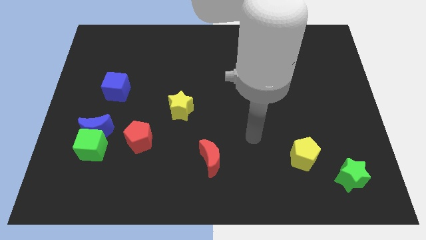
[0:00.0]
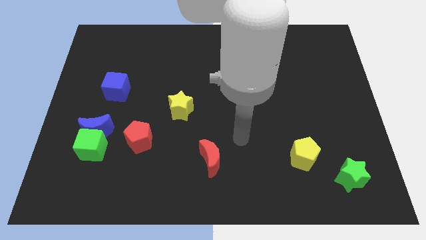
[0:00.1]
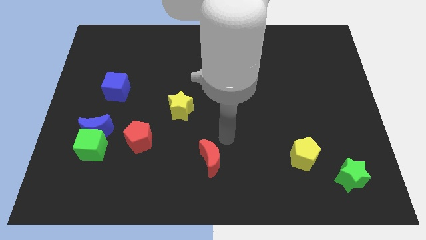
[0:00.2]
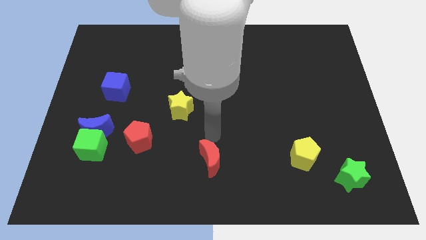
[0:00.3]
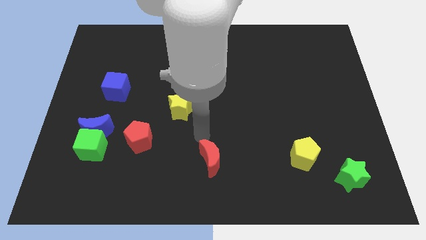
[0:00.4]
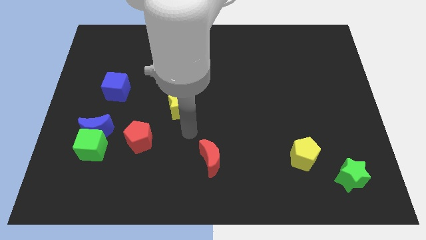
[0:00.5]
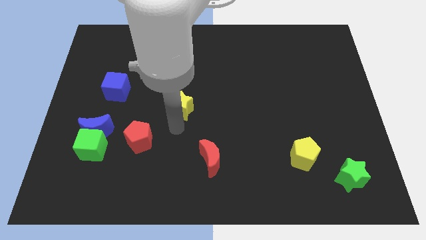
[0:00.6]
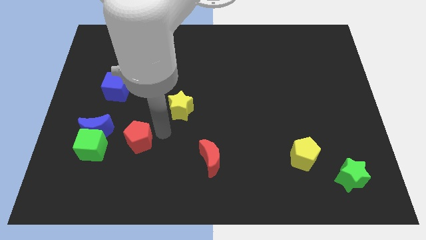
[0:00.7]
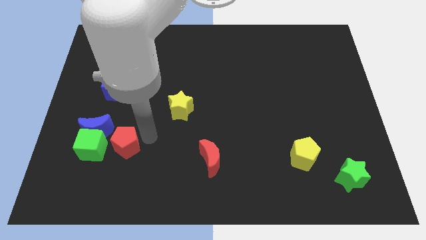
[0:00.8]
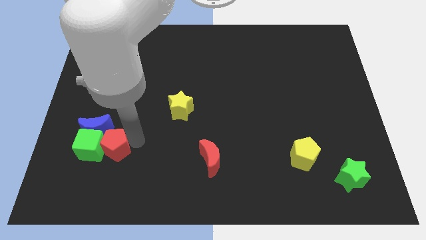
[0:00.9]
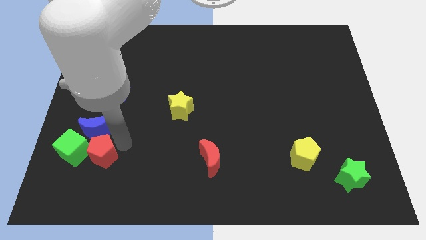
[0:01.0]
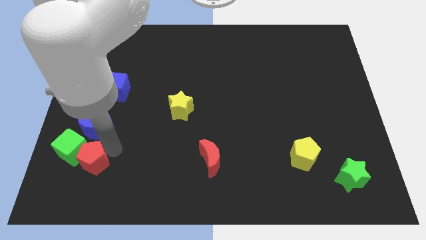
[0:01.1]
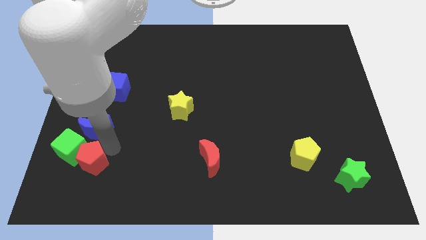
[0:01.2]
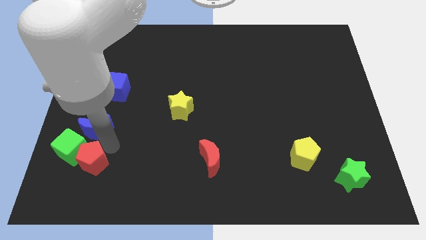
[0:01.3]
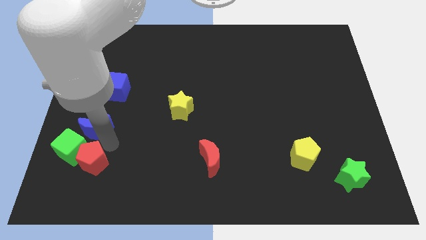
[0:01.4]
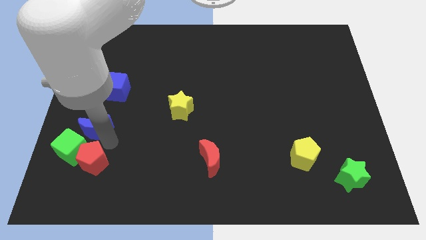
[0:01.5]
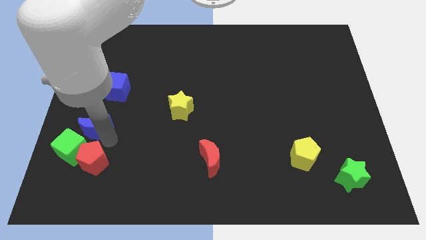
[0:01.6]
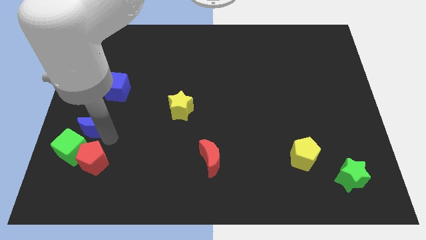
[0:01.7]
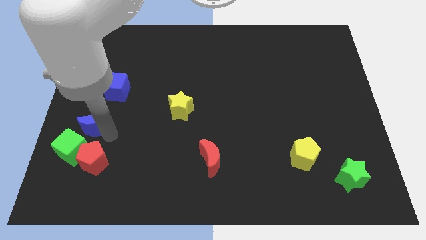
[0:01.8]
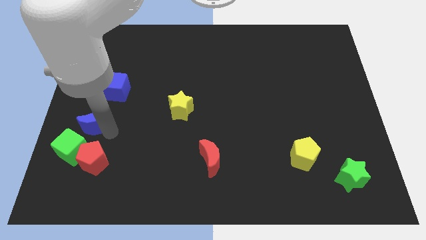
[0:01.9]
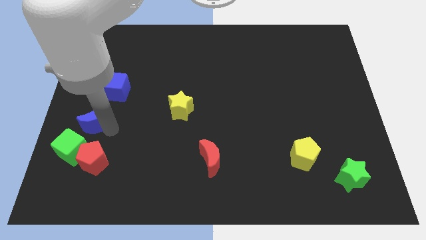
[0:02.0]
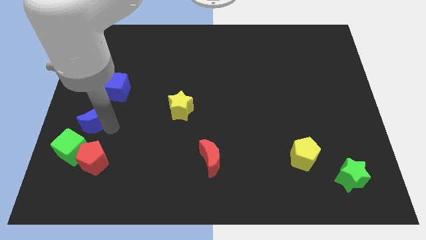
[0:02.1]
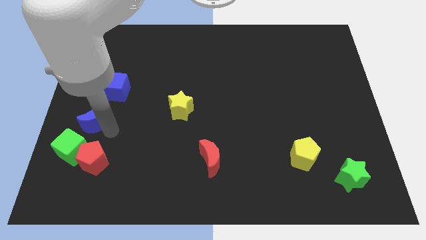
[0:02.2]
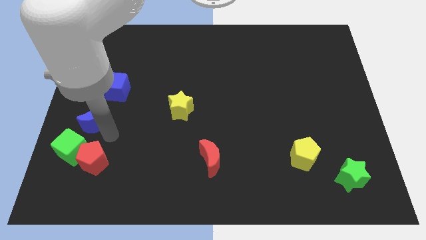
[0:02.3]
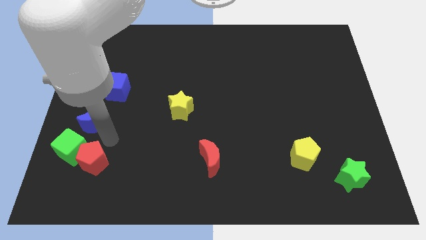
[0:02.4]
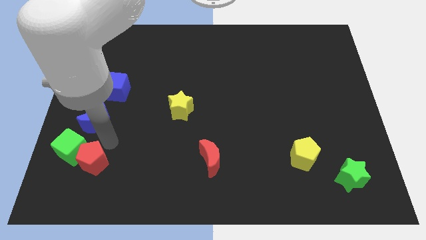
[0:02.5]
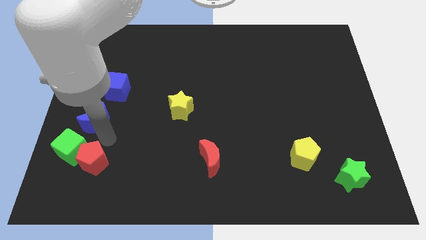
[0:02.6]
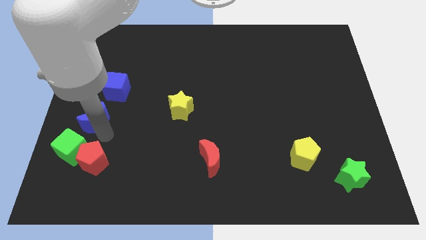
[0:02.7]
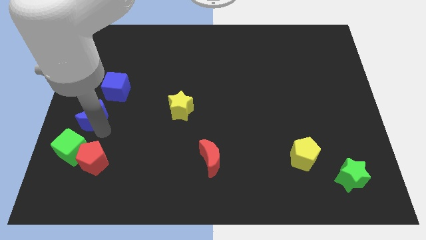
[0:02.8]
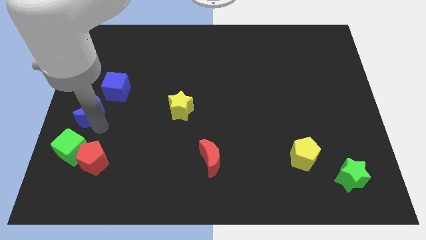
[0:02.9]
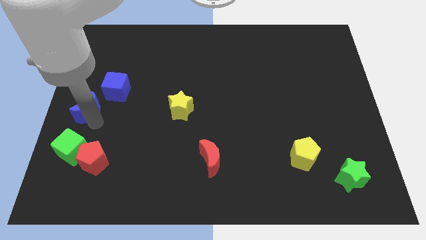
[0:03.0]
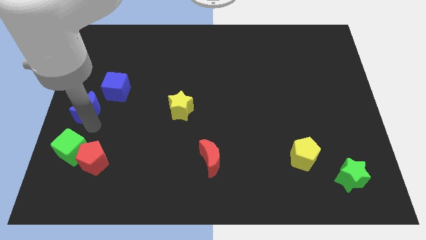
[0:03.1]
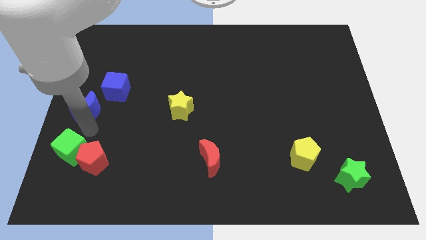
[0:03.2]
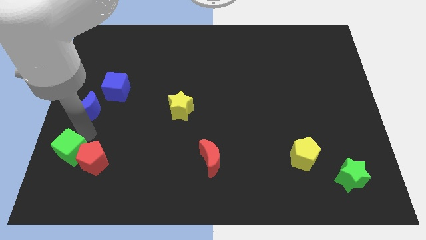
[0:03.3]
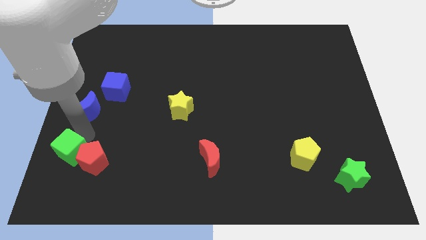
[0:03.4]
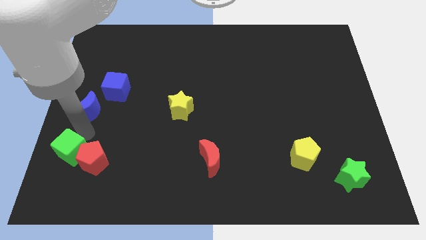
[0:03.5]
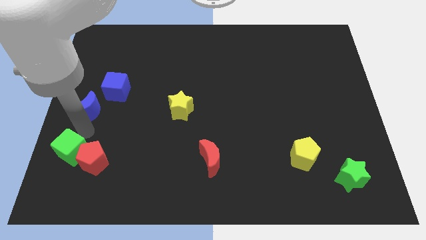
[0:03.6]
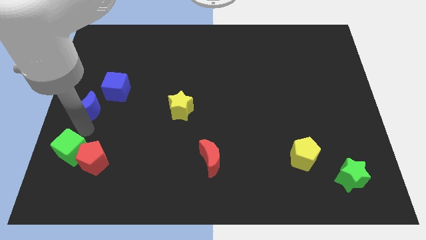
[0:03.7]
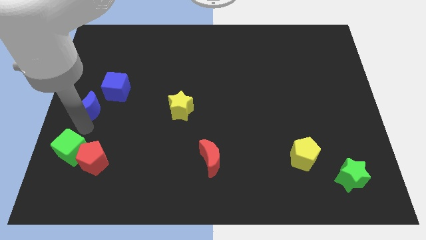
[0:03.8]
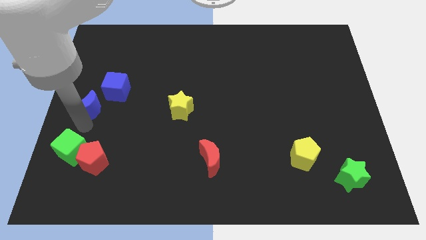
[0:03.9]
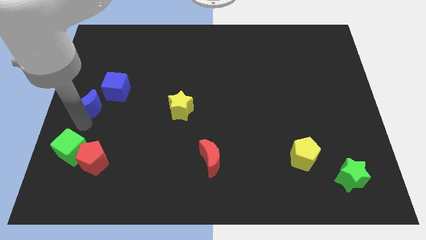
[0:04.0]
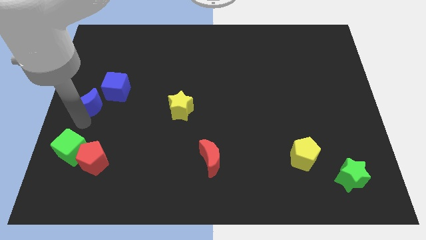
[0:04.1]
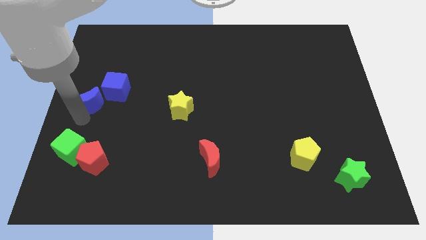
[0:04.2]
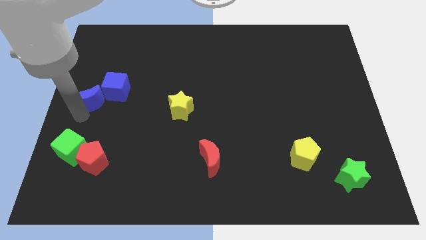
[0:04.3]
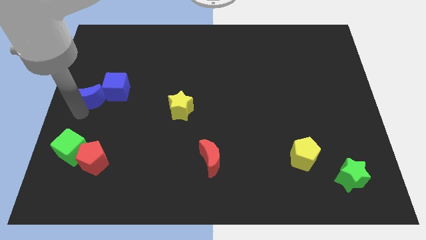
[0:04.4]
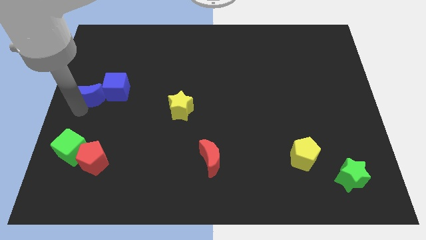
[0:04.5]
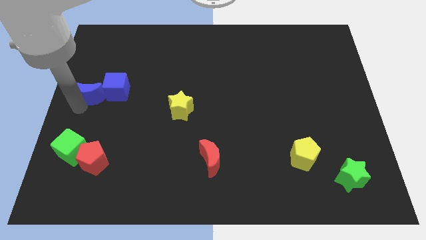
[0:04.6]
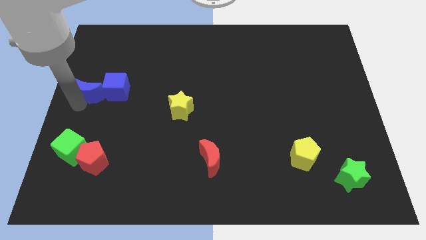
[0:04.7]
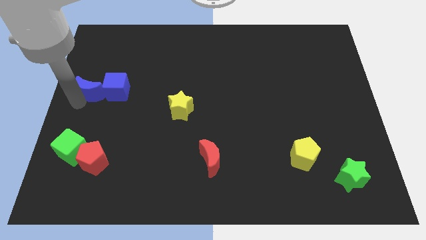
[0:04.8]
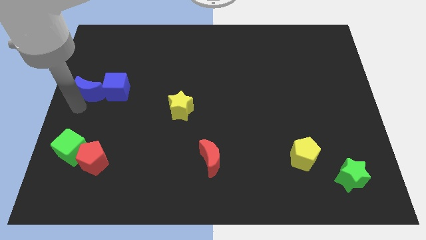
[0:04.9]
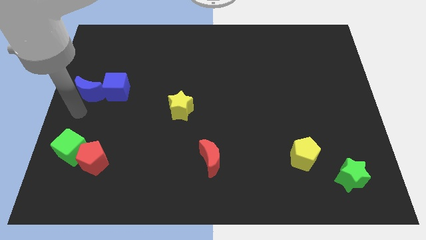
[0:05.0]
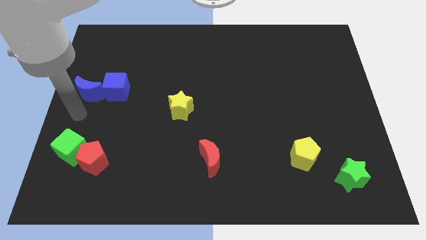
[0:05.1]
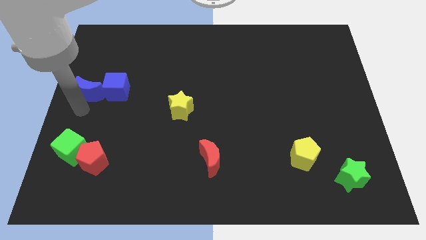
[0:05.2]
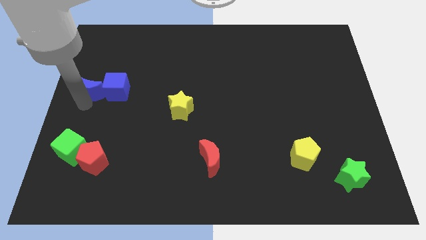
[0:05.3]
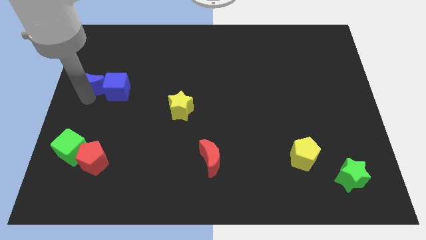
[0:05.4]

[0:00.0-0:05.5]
move the blue moon diagonally up and to the left of the blue cube

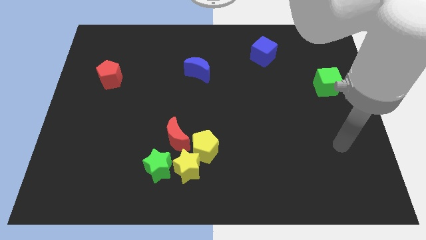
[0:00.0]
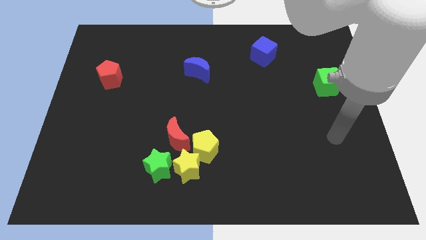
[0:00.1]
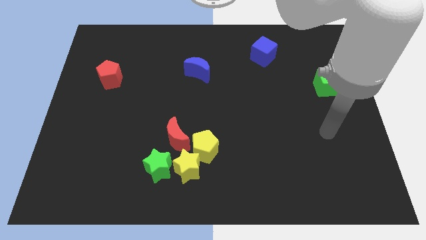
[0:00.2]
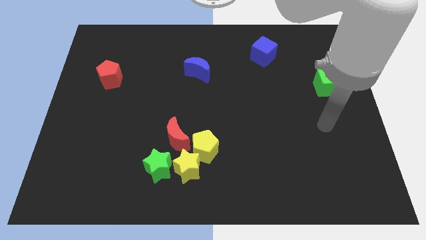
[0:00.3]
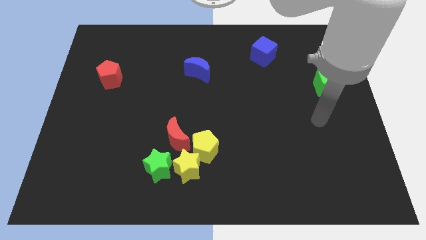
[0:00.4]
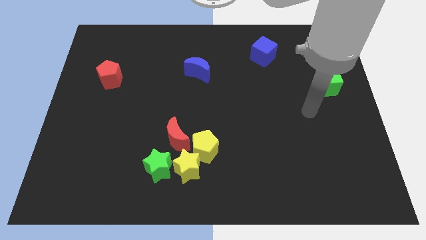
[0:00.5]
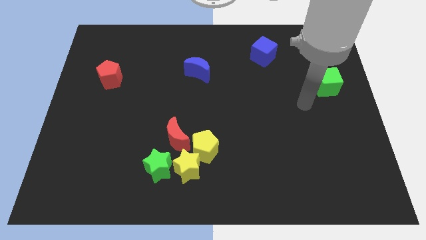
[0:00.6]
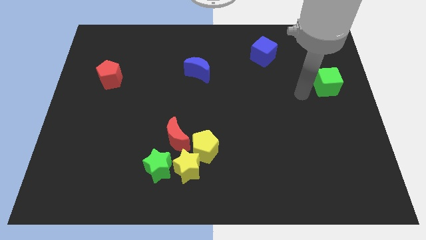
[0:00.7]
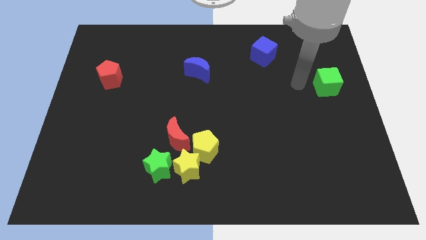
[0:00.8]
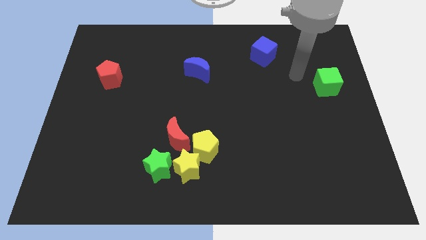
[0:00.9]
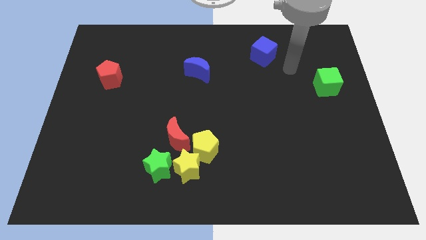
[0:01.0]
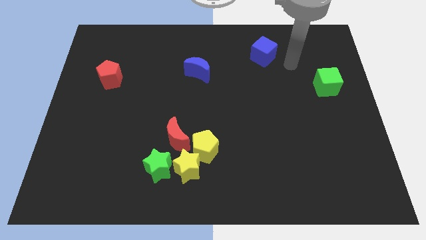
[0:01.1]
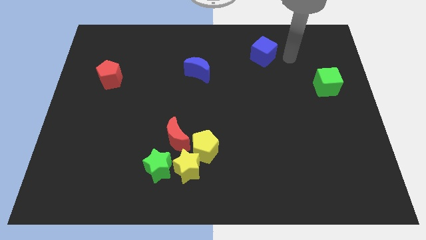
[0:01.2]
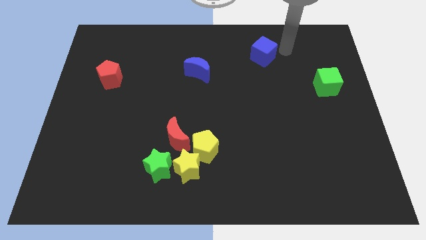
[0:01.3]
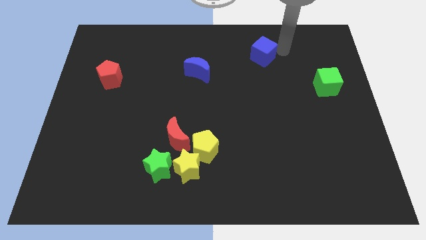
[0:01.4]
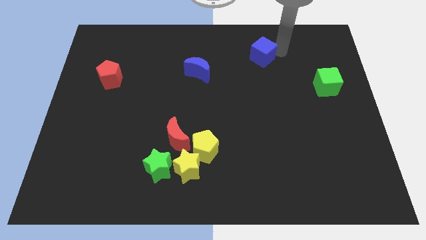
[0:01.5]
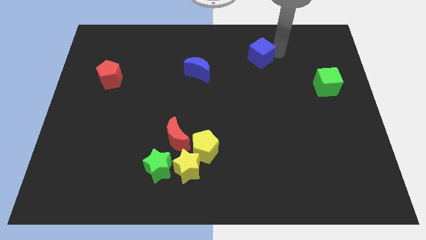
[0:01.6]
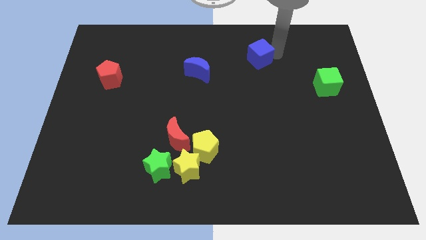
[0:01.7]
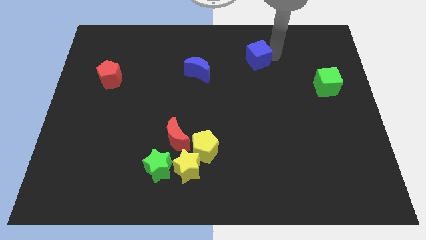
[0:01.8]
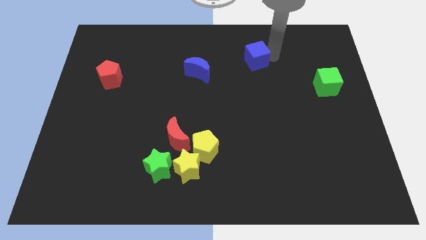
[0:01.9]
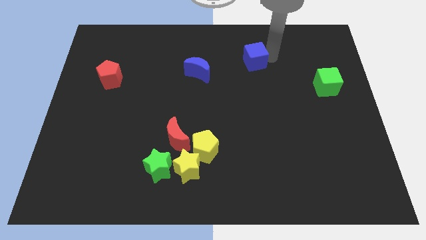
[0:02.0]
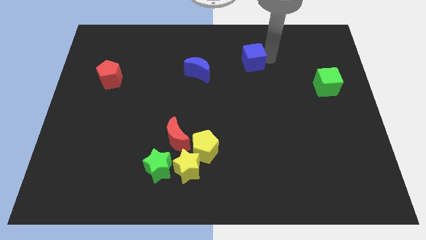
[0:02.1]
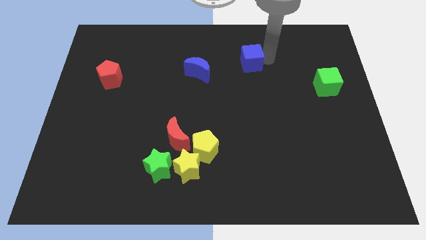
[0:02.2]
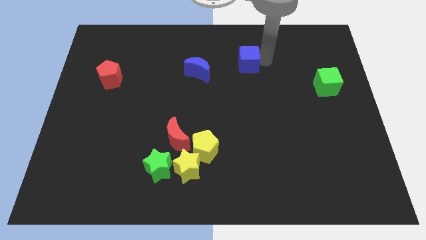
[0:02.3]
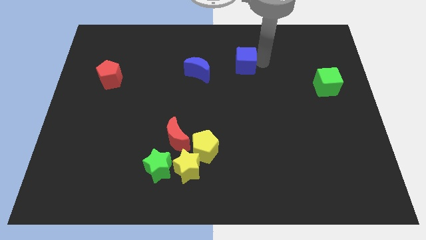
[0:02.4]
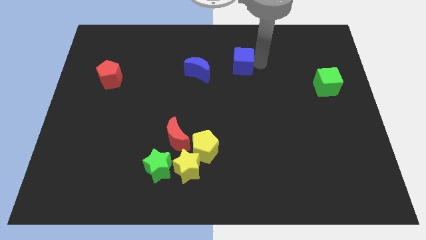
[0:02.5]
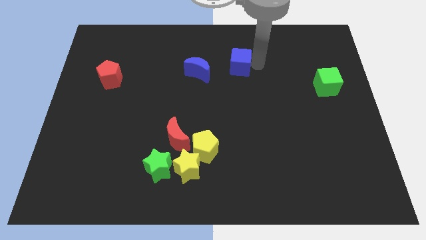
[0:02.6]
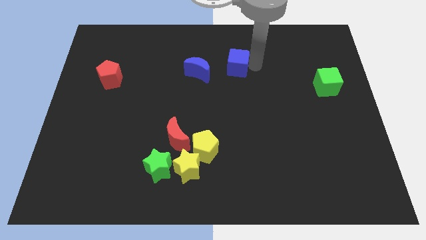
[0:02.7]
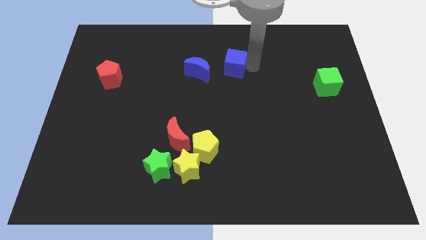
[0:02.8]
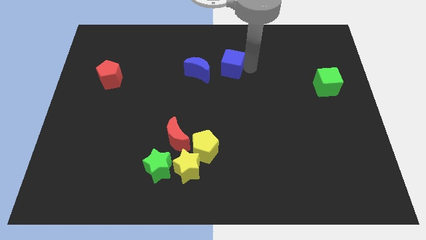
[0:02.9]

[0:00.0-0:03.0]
push the blue cube to the top right of the blue moon
